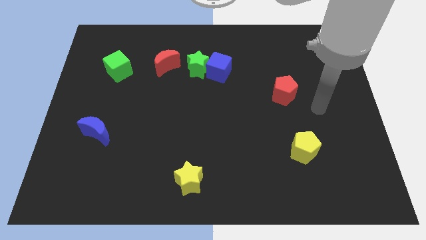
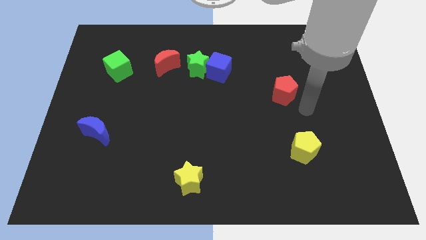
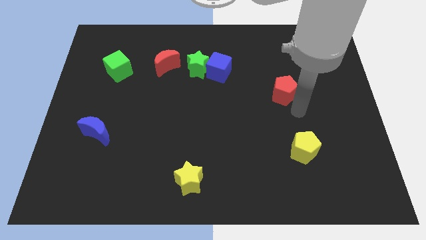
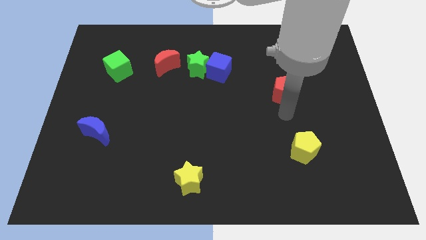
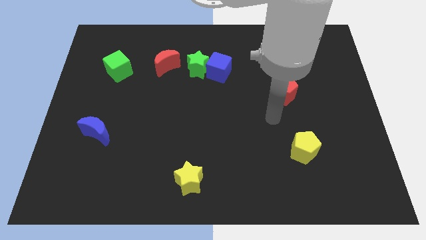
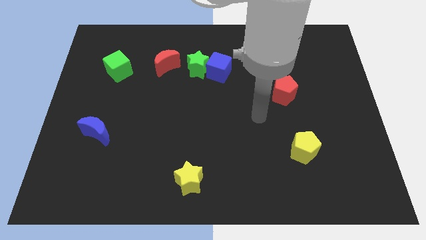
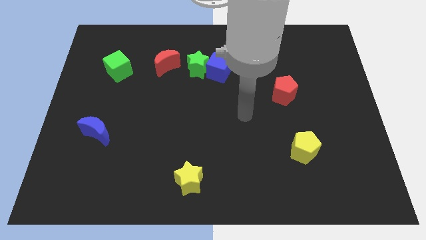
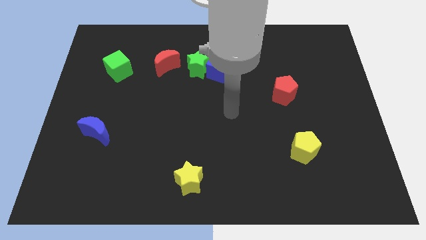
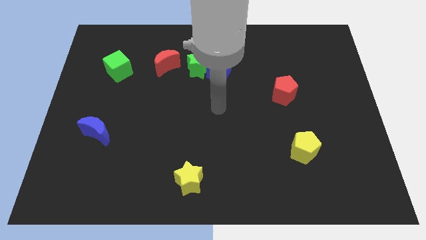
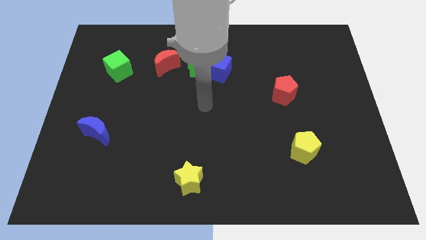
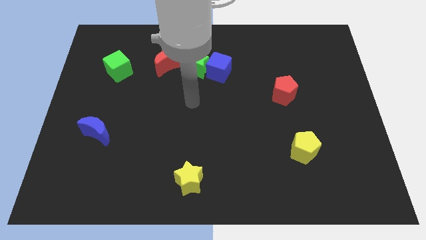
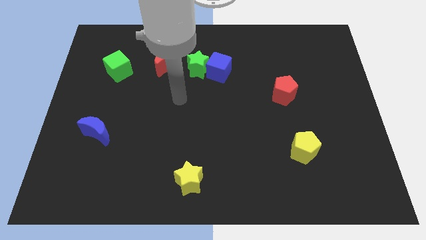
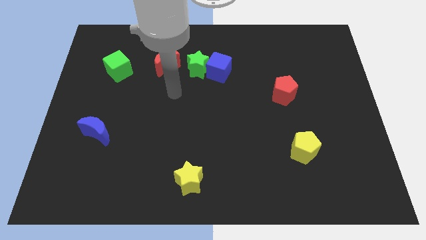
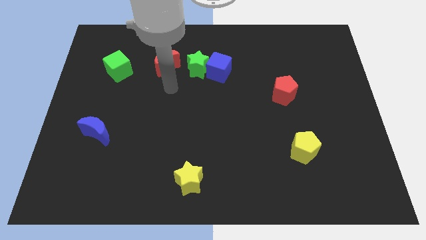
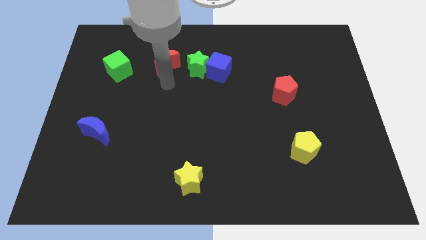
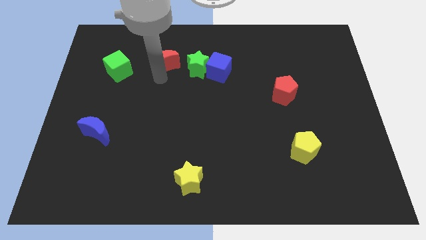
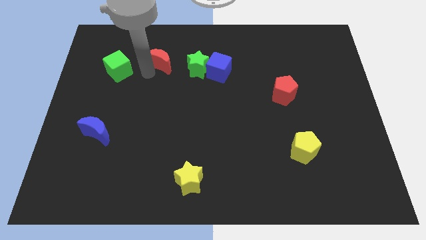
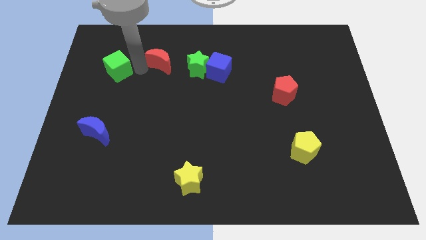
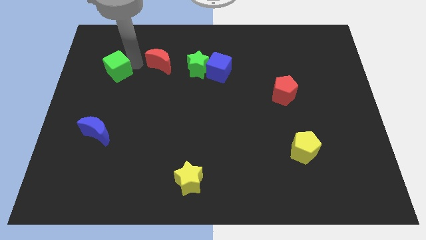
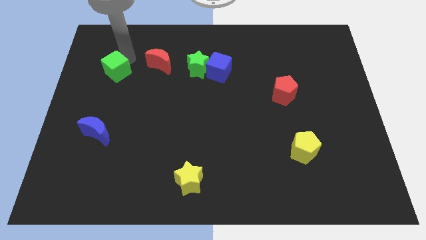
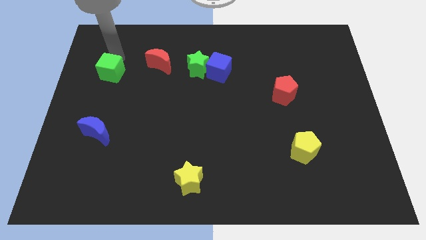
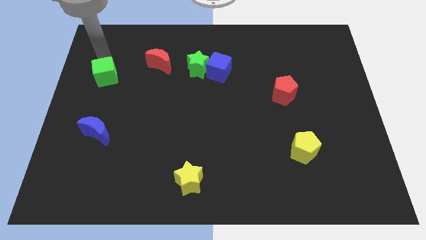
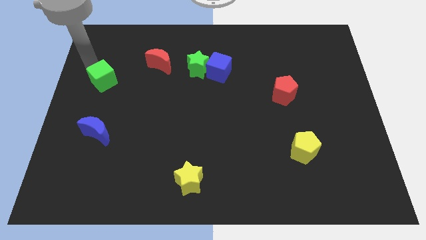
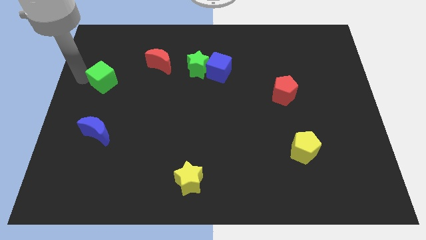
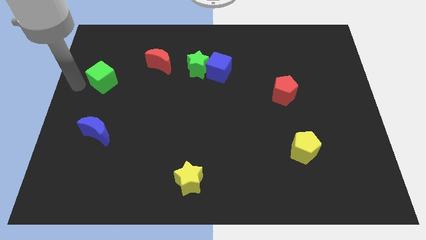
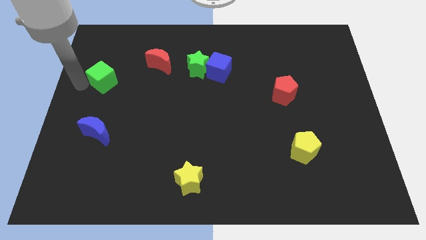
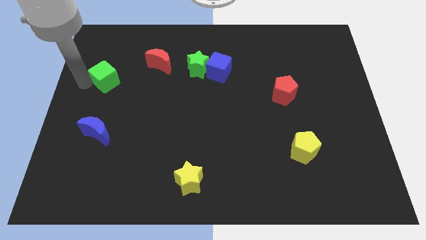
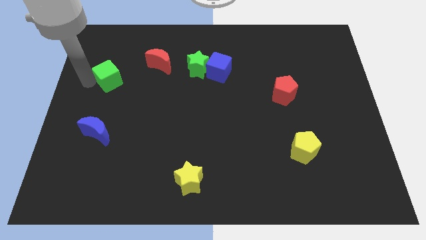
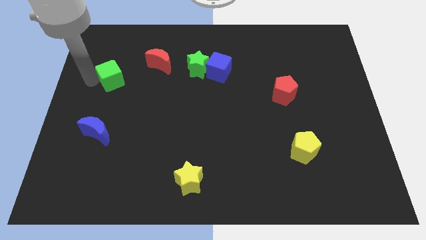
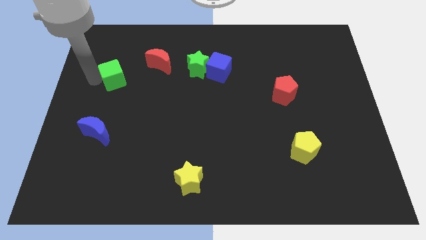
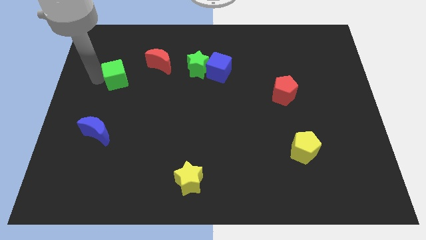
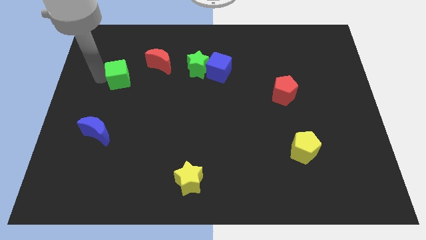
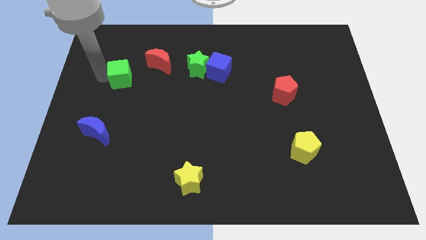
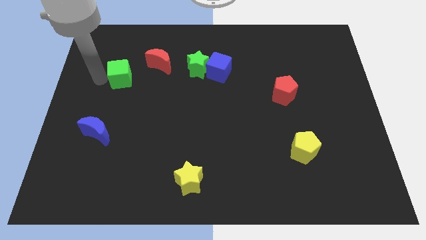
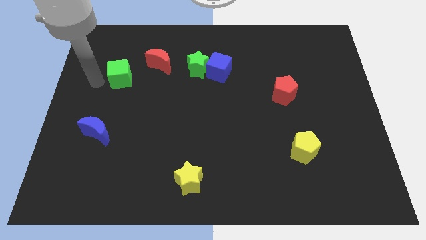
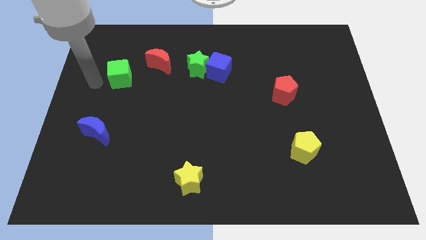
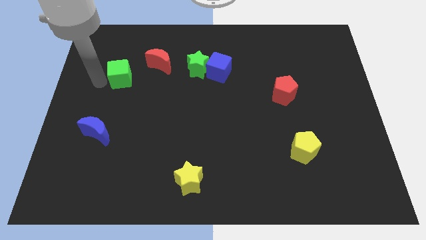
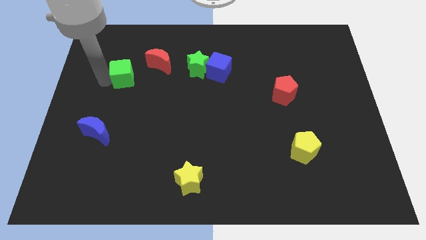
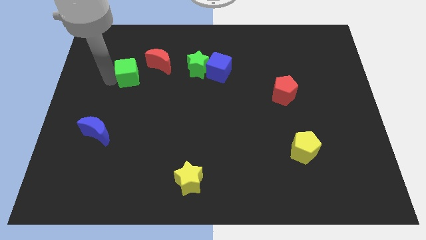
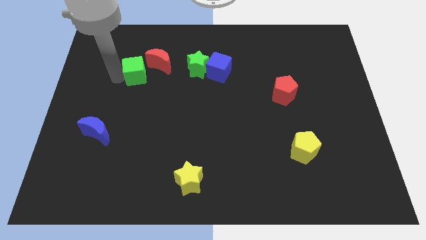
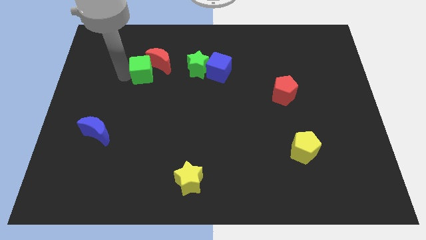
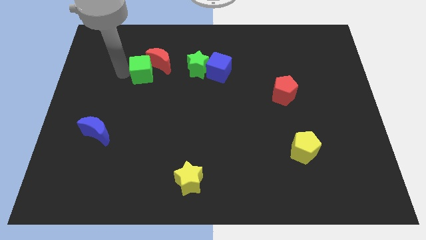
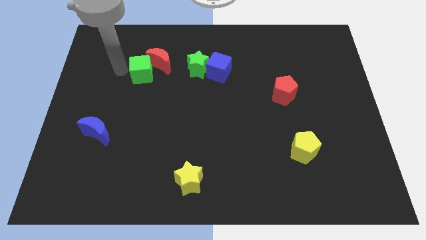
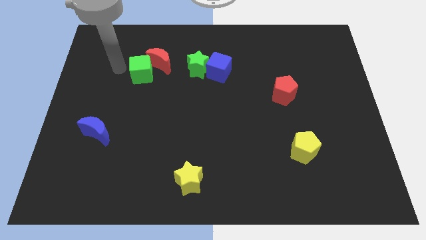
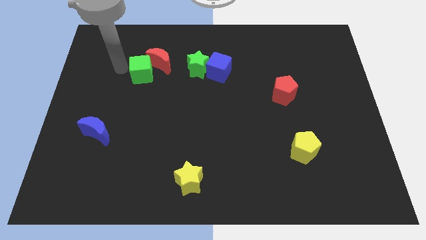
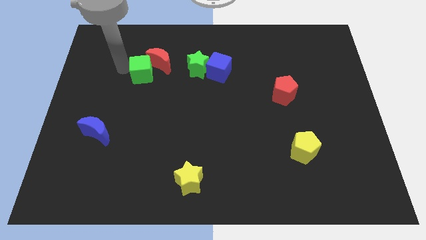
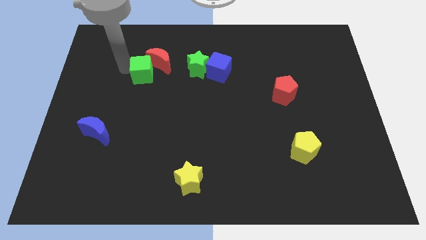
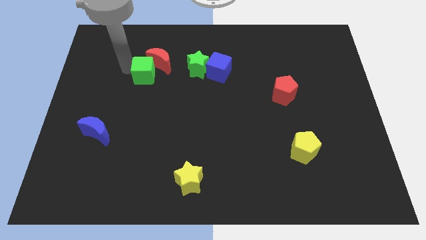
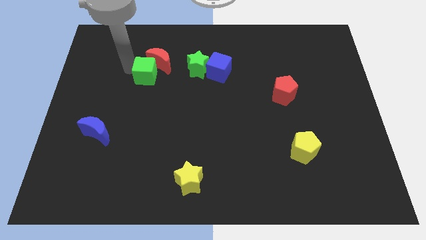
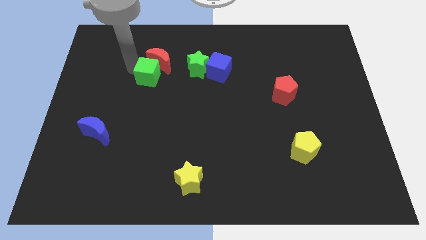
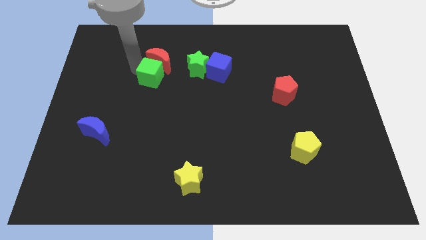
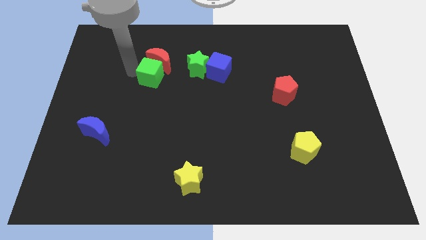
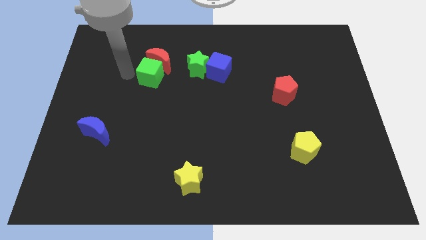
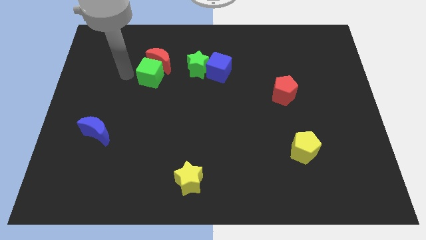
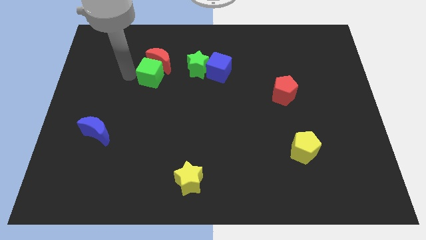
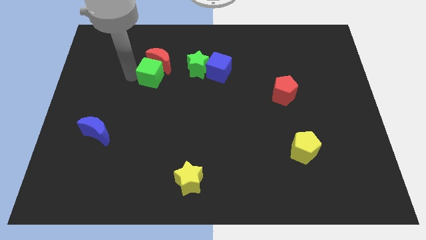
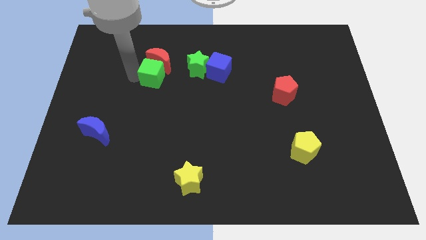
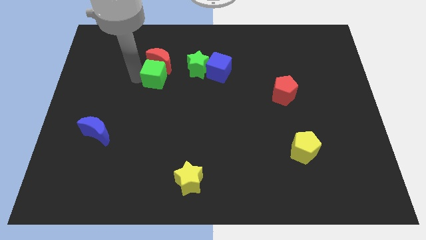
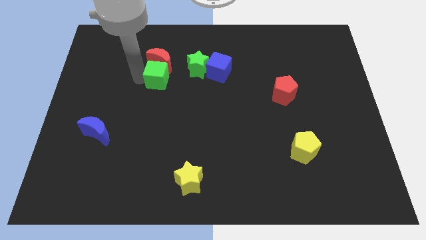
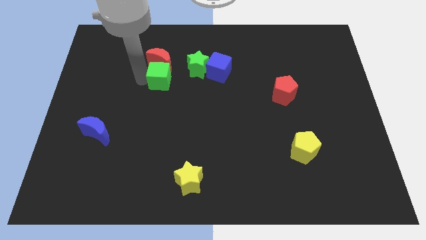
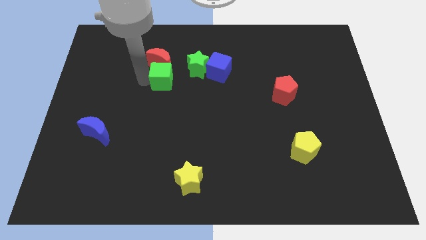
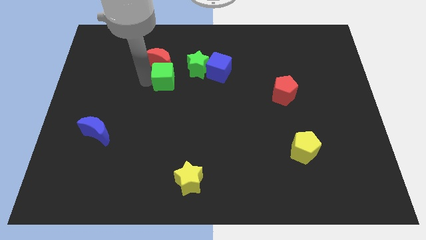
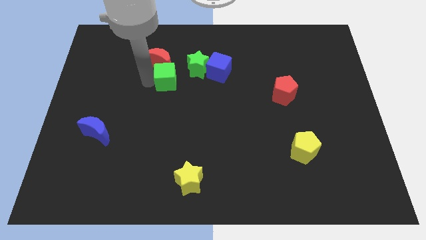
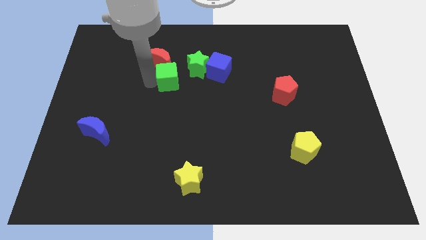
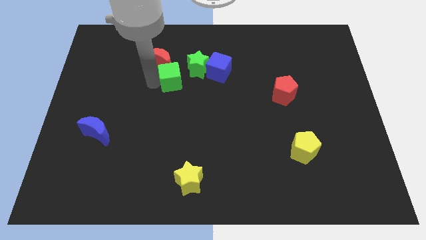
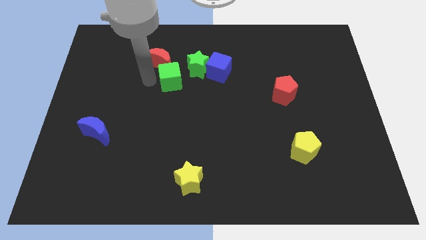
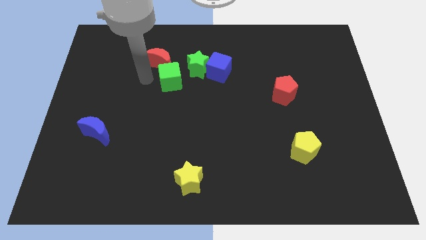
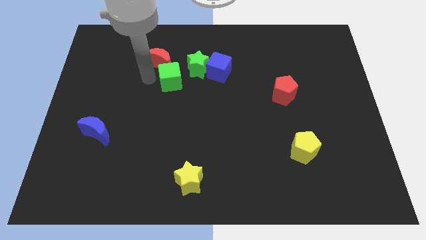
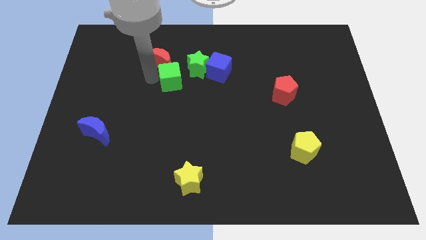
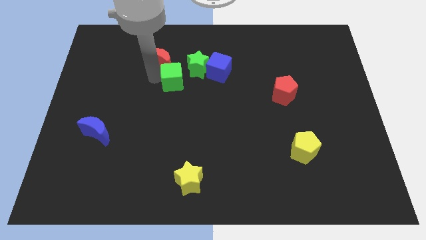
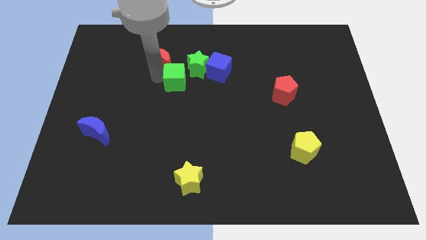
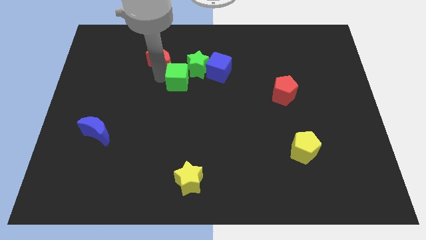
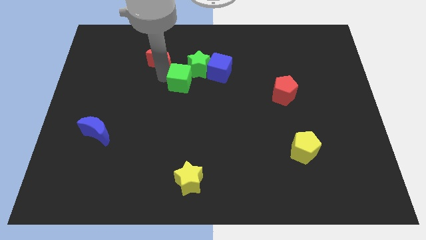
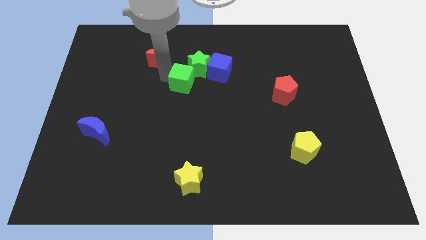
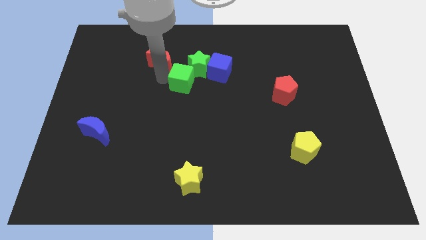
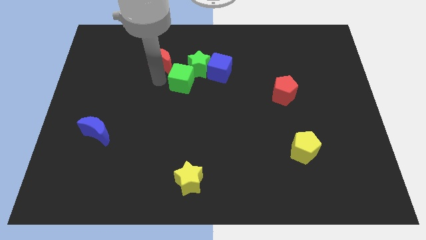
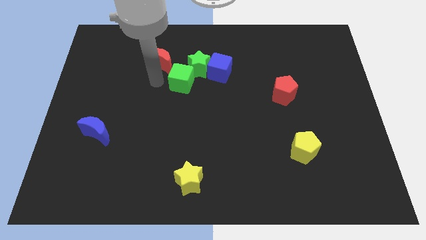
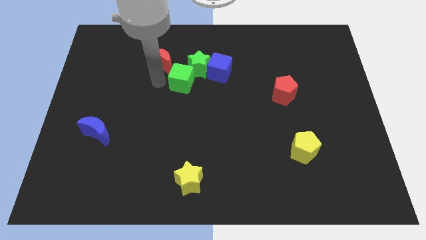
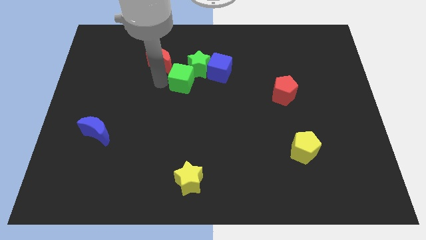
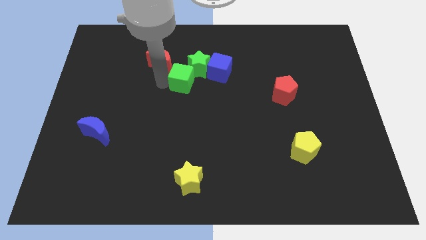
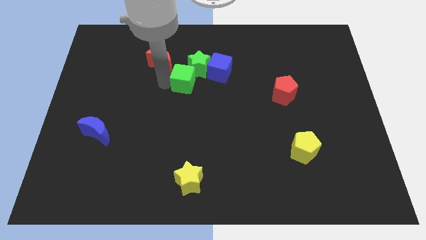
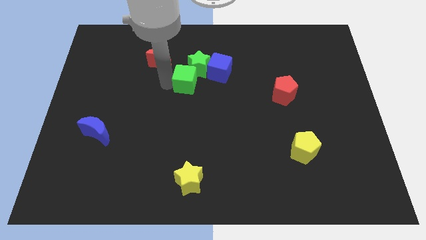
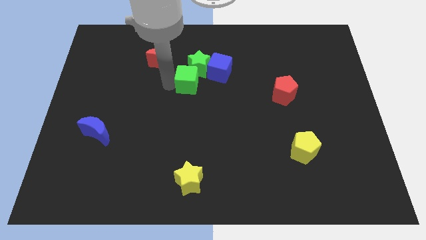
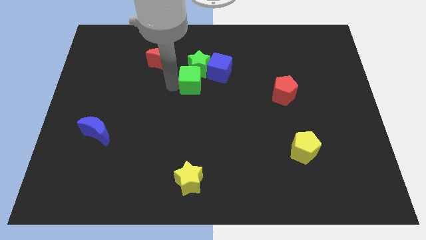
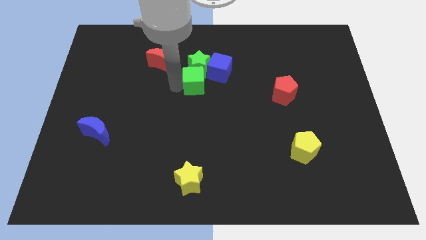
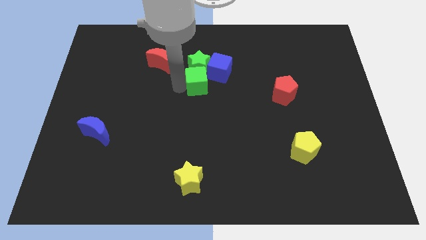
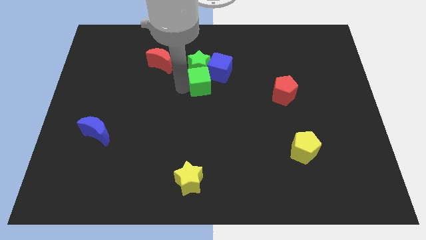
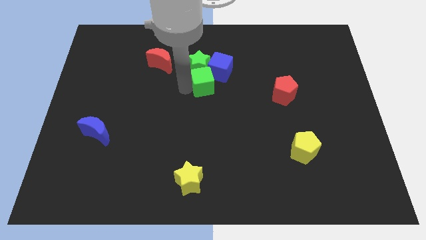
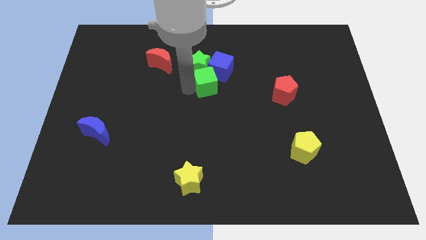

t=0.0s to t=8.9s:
move the green cube close to the blue cube
